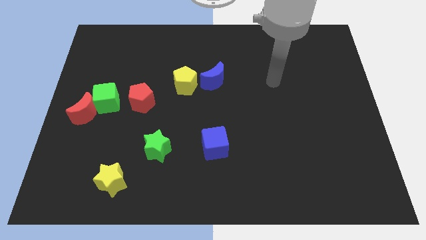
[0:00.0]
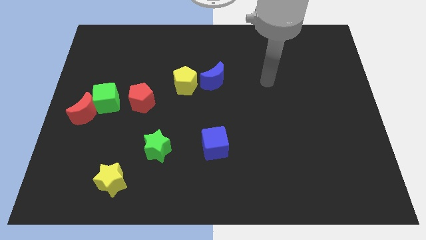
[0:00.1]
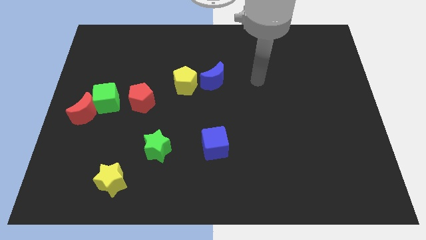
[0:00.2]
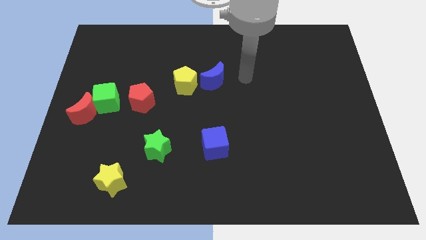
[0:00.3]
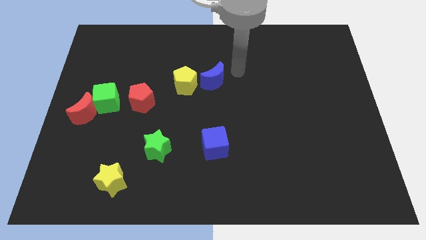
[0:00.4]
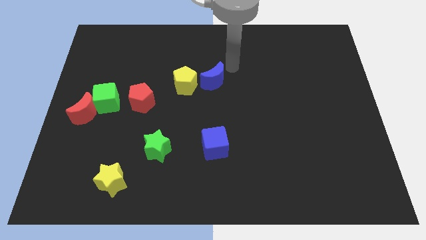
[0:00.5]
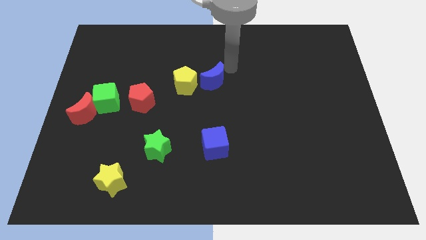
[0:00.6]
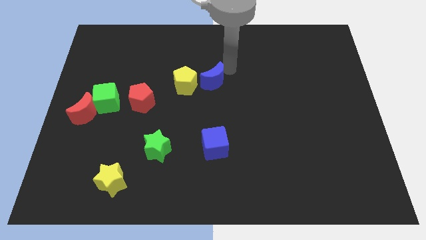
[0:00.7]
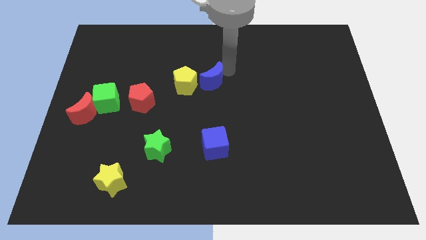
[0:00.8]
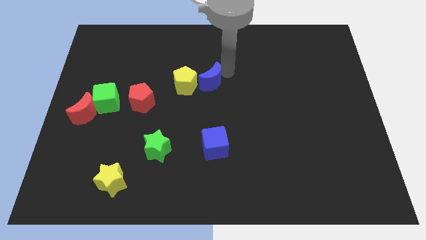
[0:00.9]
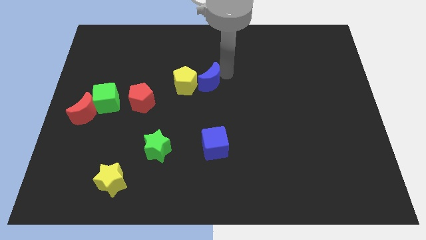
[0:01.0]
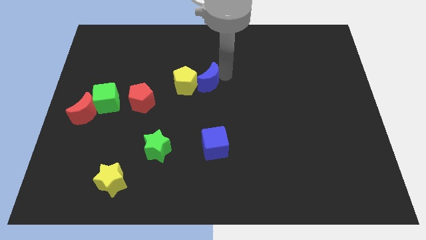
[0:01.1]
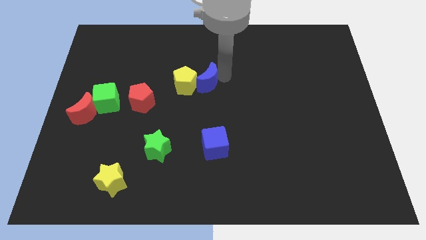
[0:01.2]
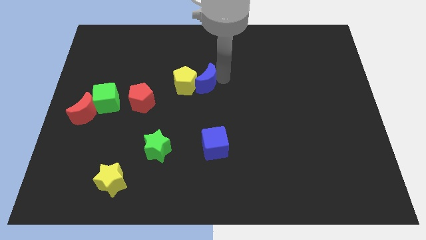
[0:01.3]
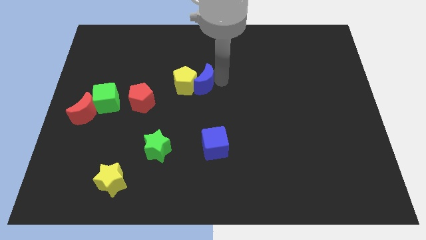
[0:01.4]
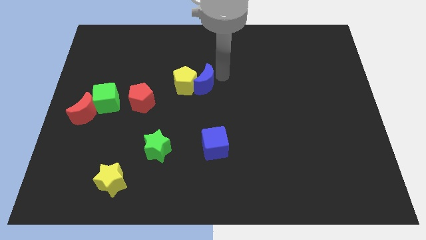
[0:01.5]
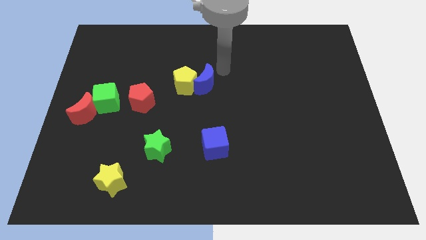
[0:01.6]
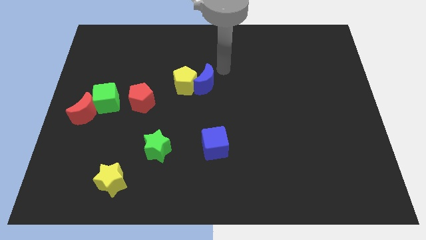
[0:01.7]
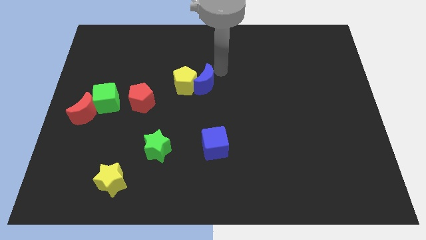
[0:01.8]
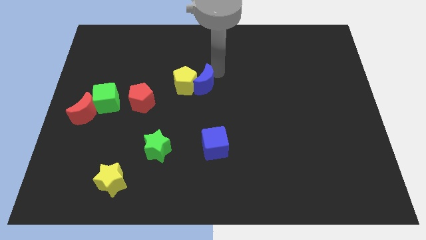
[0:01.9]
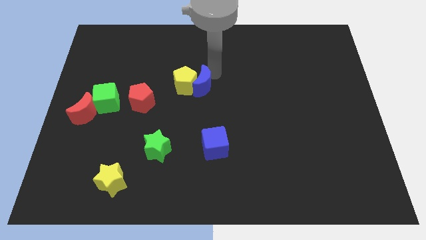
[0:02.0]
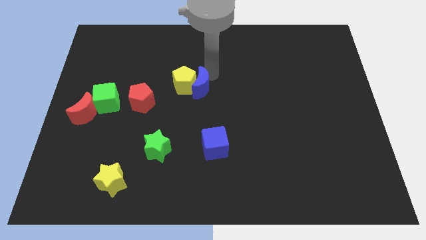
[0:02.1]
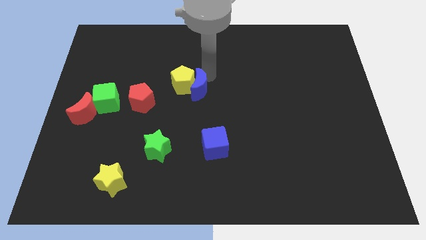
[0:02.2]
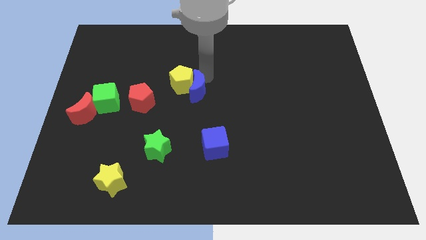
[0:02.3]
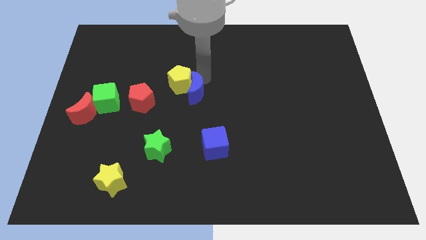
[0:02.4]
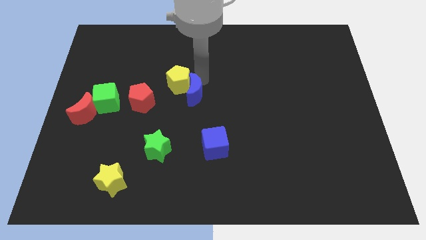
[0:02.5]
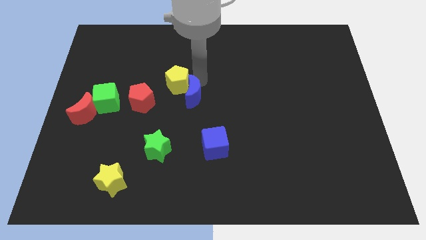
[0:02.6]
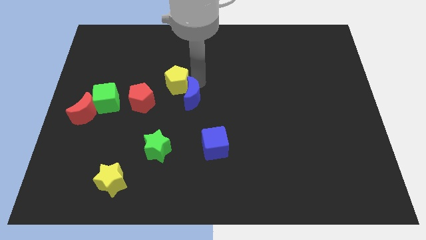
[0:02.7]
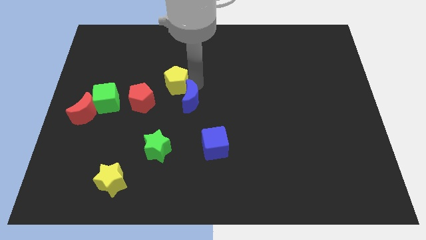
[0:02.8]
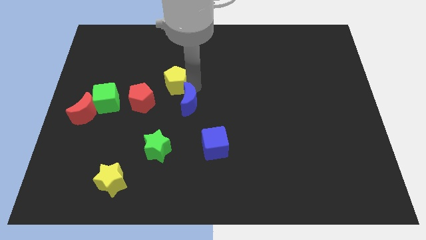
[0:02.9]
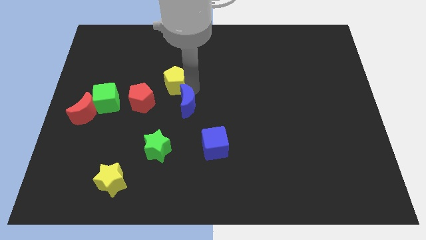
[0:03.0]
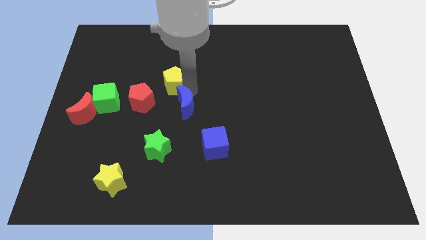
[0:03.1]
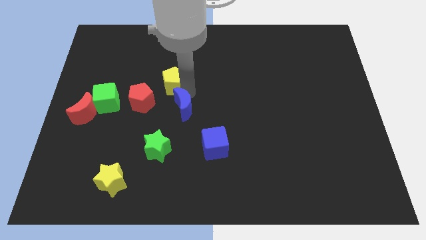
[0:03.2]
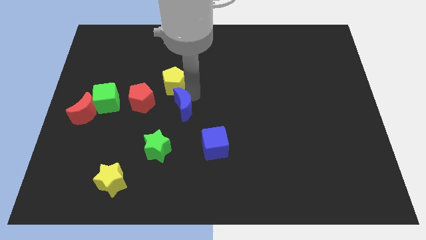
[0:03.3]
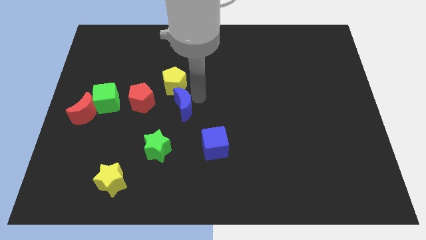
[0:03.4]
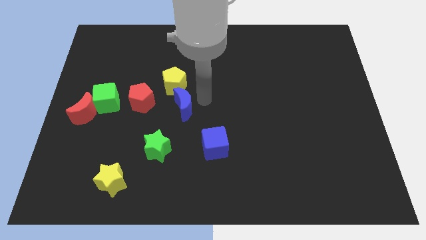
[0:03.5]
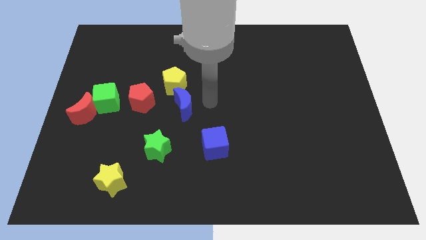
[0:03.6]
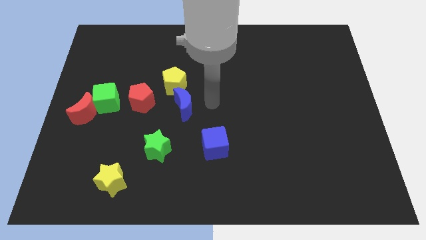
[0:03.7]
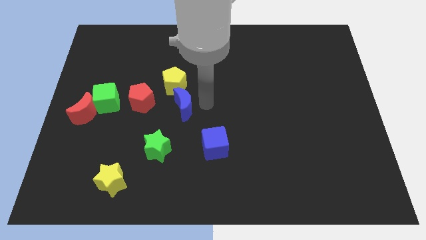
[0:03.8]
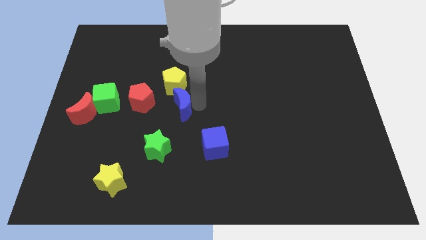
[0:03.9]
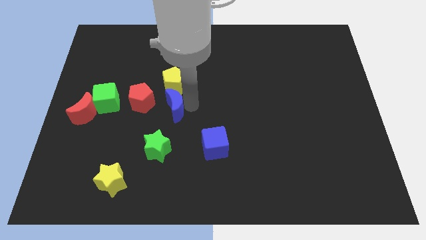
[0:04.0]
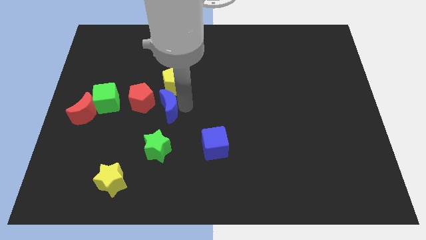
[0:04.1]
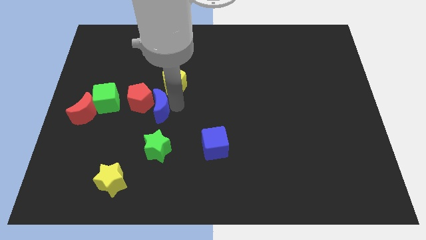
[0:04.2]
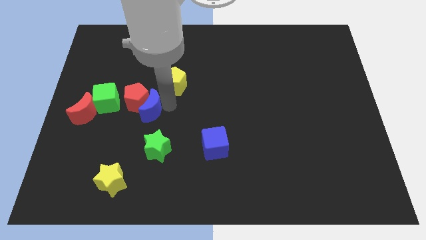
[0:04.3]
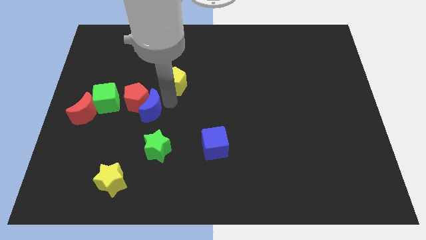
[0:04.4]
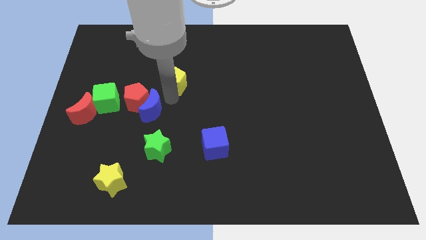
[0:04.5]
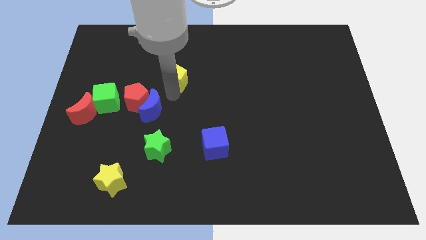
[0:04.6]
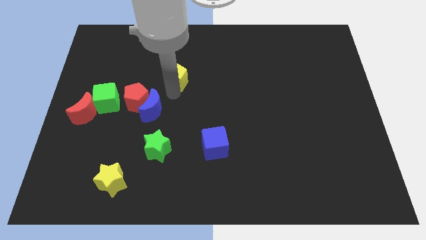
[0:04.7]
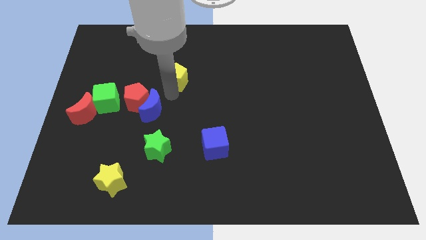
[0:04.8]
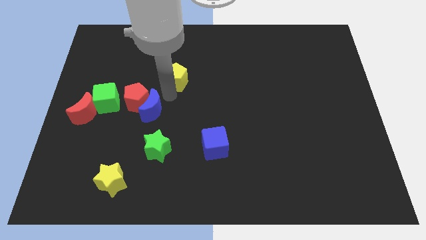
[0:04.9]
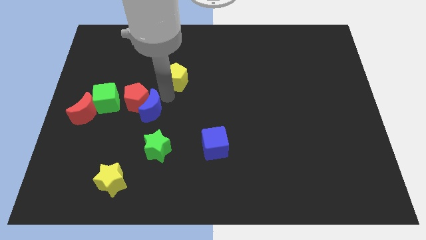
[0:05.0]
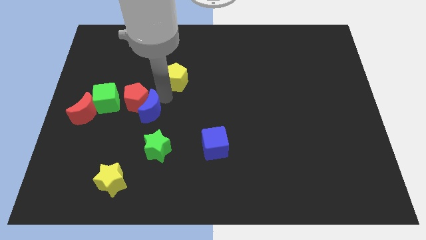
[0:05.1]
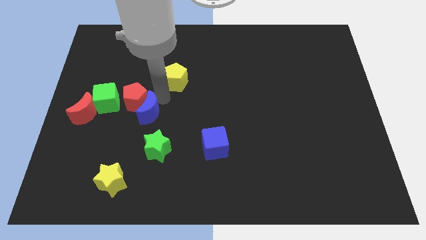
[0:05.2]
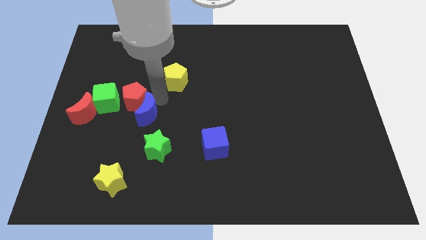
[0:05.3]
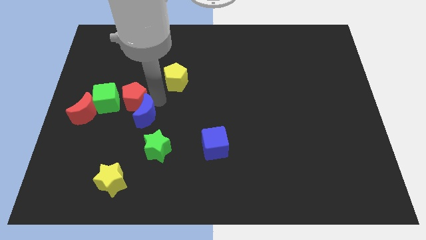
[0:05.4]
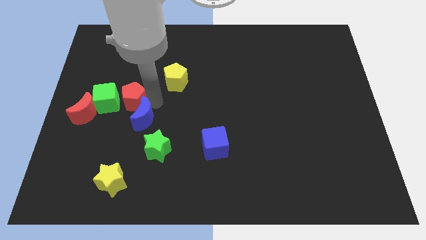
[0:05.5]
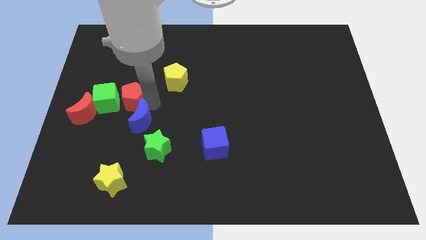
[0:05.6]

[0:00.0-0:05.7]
move the blue moon downwards and then to the left

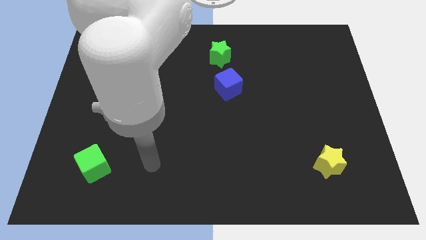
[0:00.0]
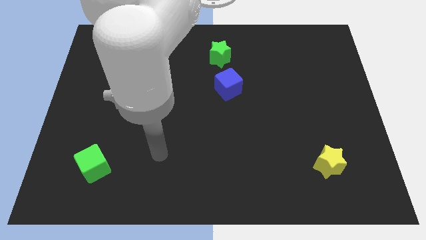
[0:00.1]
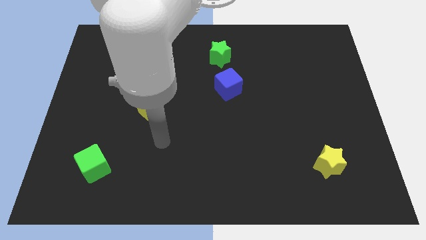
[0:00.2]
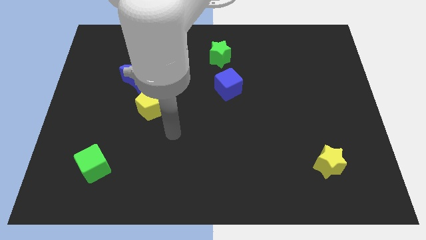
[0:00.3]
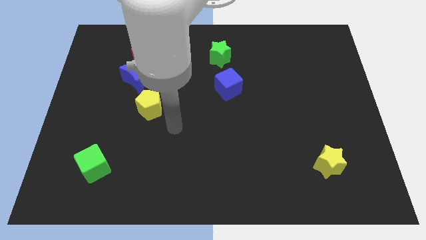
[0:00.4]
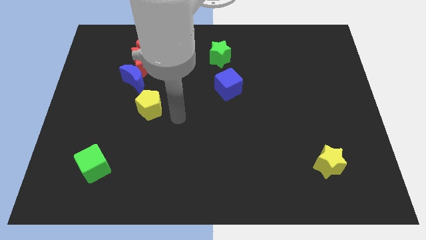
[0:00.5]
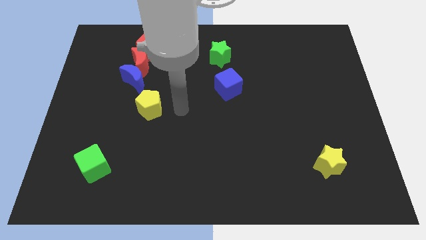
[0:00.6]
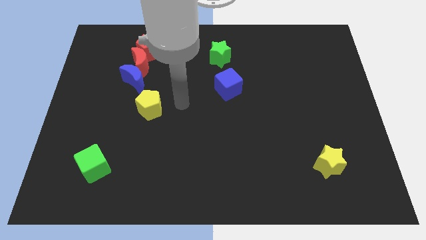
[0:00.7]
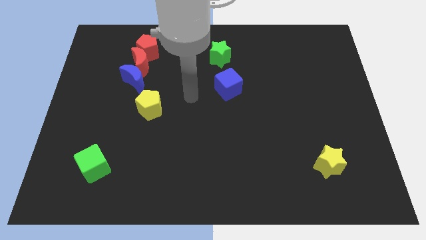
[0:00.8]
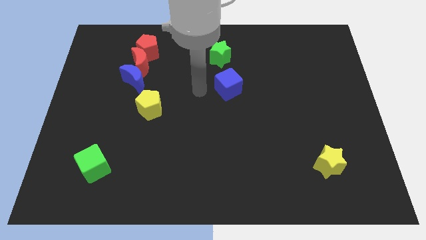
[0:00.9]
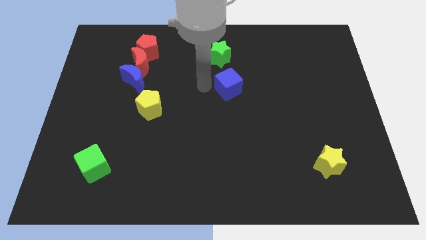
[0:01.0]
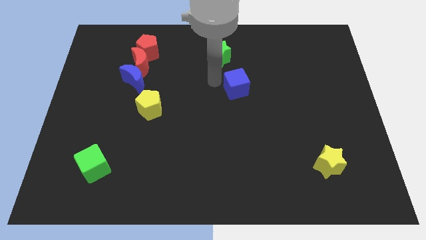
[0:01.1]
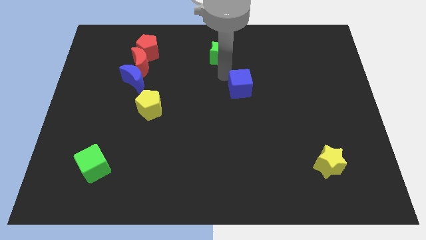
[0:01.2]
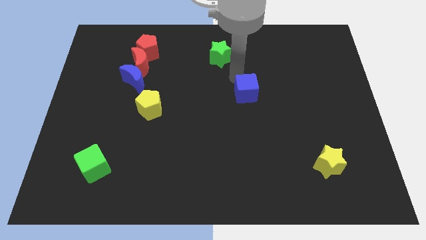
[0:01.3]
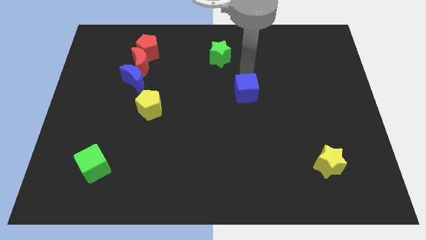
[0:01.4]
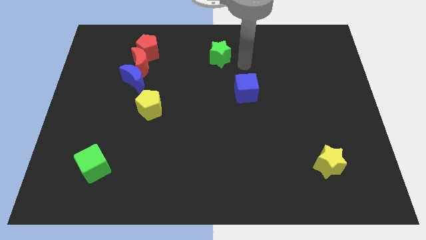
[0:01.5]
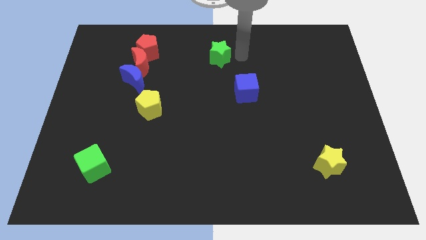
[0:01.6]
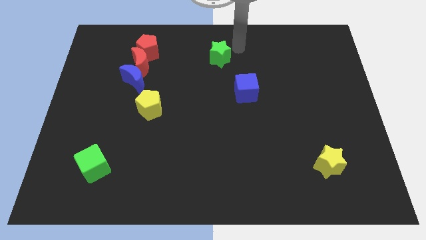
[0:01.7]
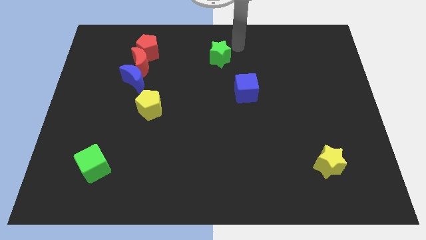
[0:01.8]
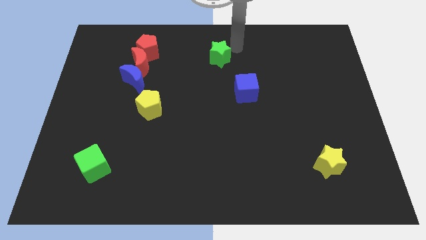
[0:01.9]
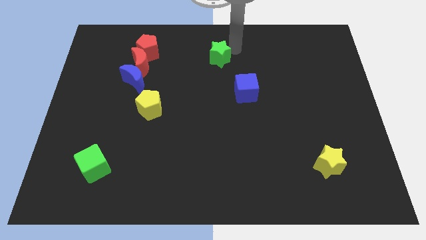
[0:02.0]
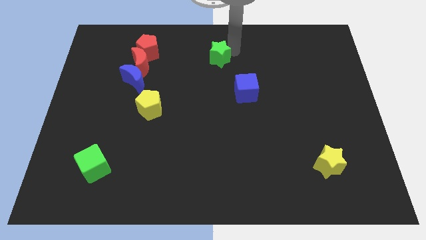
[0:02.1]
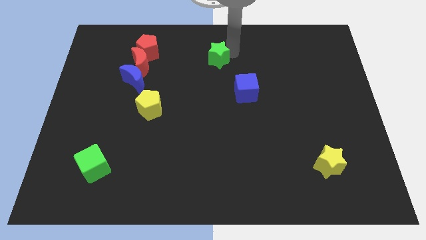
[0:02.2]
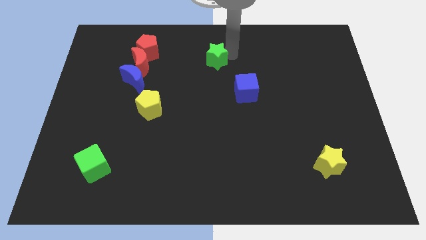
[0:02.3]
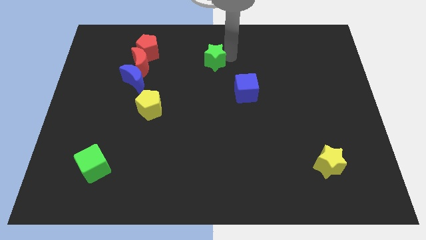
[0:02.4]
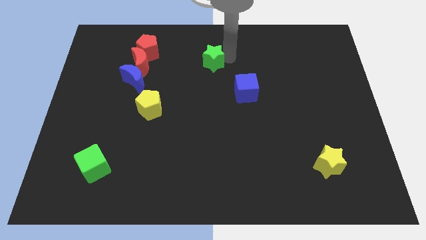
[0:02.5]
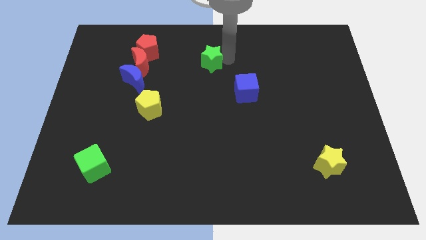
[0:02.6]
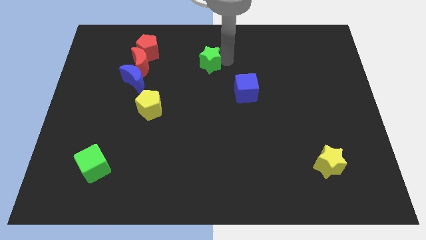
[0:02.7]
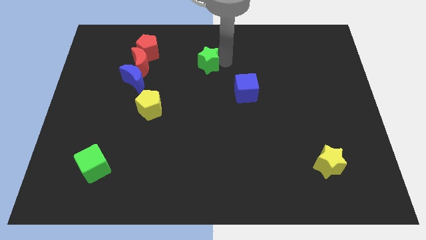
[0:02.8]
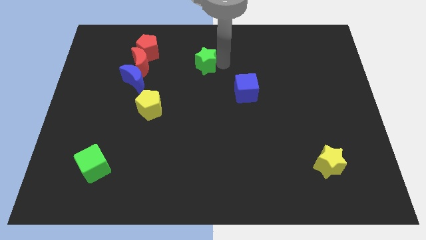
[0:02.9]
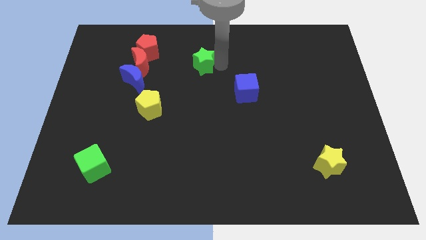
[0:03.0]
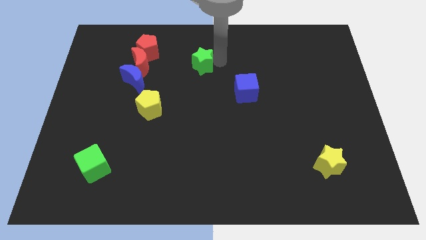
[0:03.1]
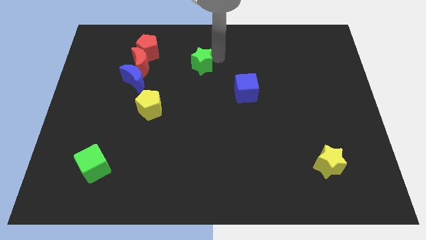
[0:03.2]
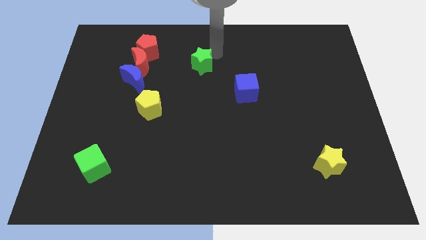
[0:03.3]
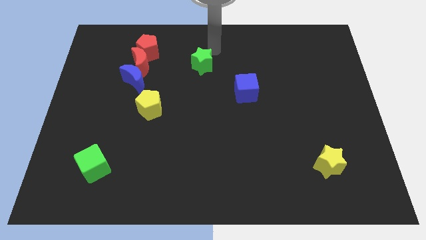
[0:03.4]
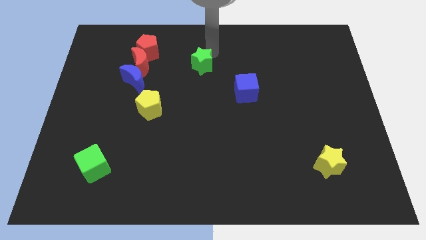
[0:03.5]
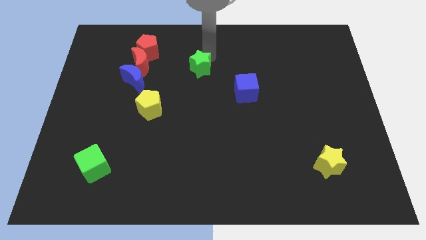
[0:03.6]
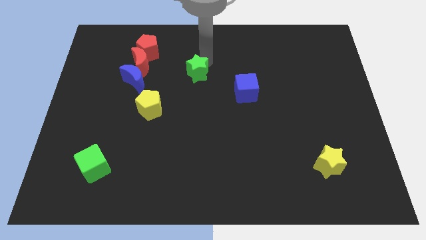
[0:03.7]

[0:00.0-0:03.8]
slightly move the green star downwards and then to the left
